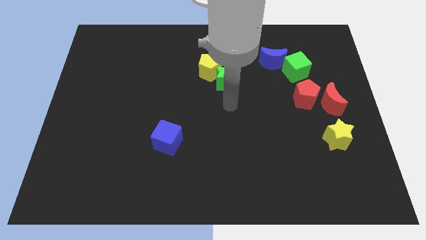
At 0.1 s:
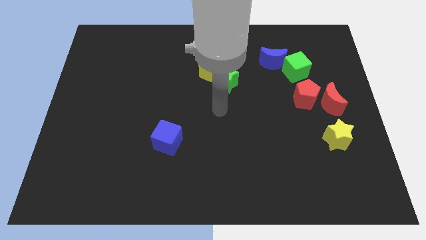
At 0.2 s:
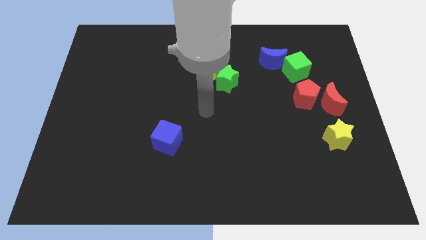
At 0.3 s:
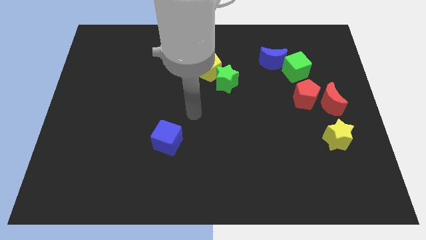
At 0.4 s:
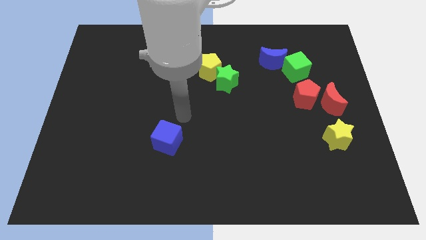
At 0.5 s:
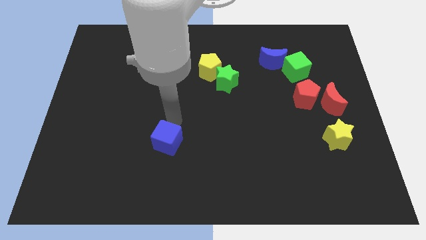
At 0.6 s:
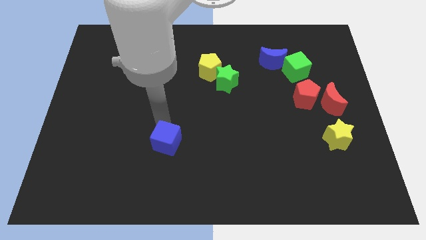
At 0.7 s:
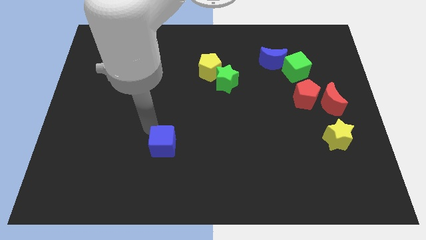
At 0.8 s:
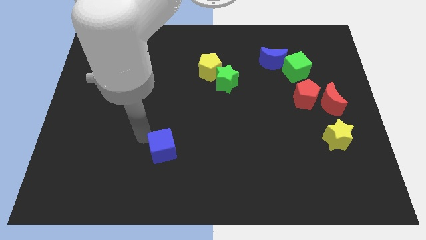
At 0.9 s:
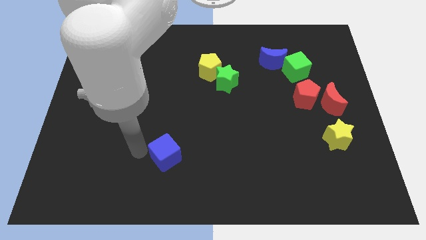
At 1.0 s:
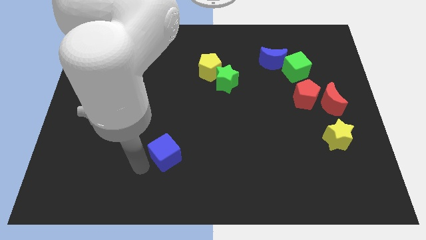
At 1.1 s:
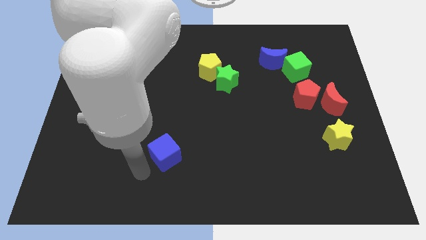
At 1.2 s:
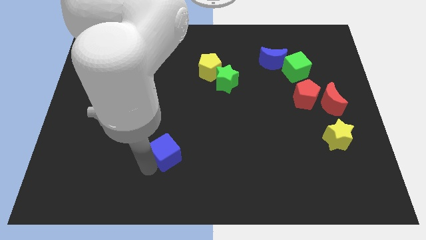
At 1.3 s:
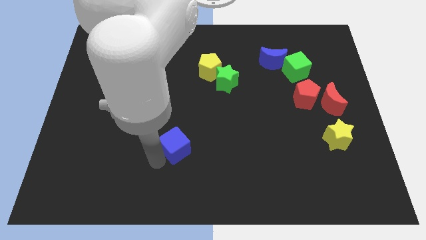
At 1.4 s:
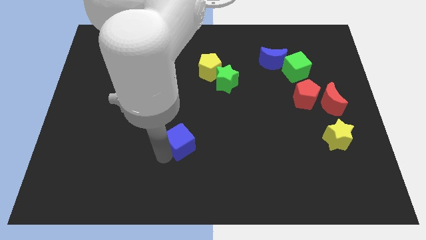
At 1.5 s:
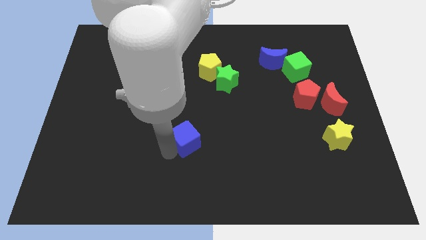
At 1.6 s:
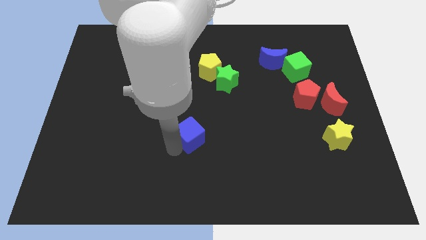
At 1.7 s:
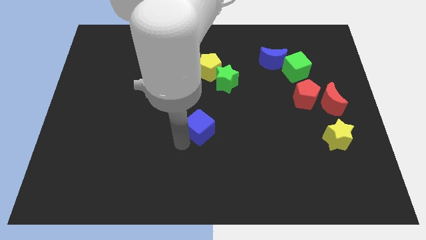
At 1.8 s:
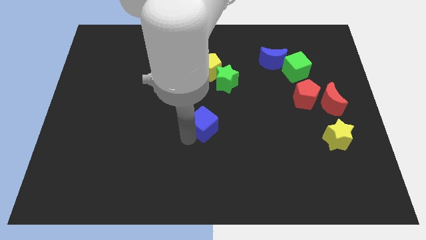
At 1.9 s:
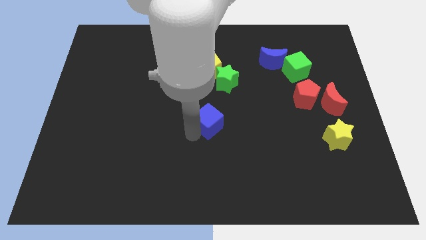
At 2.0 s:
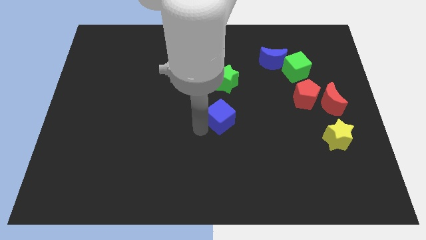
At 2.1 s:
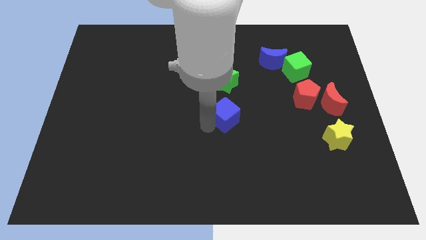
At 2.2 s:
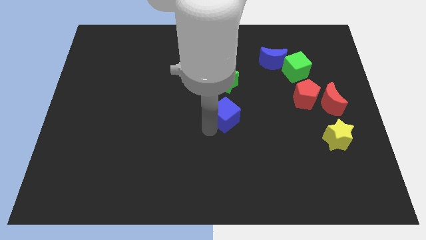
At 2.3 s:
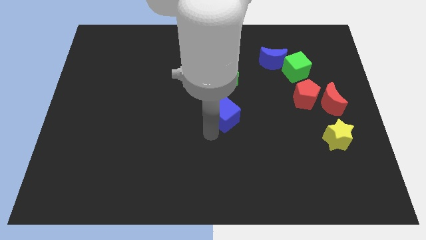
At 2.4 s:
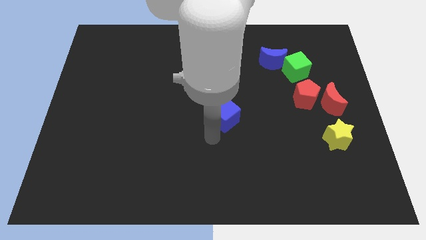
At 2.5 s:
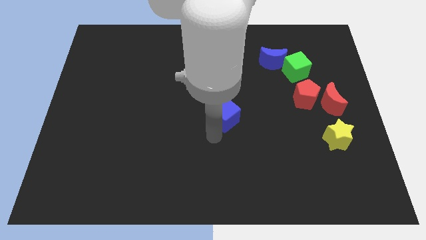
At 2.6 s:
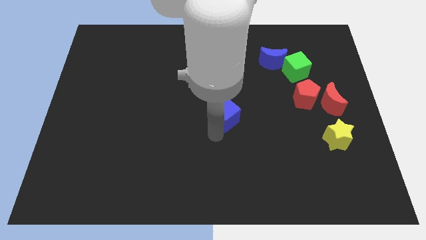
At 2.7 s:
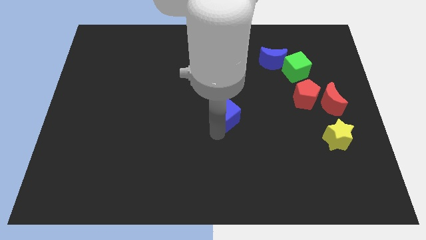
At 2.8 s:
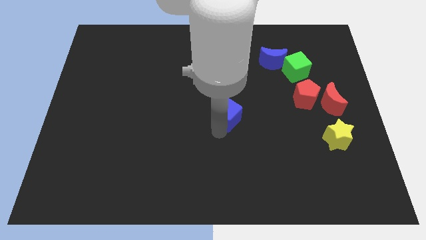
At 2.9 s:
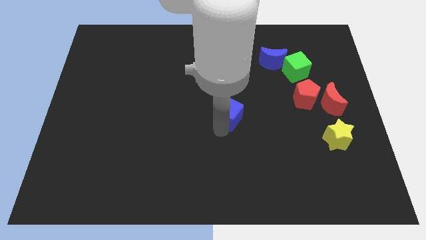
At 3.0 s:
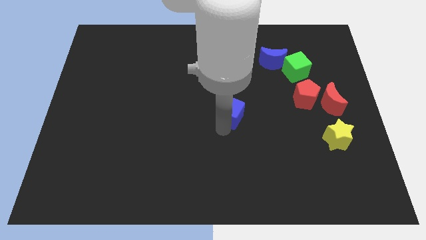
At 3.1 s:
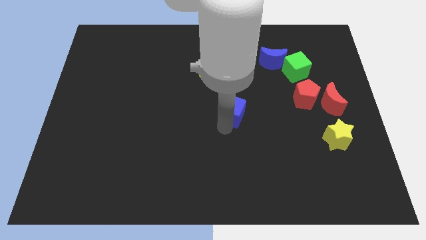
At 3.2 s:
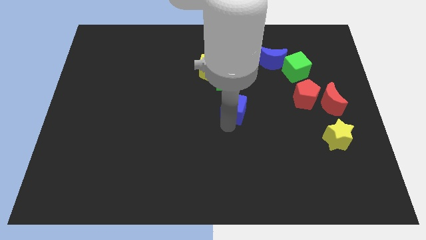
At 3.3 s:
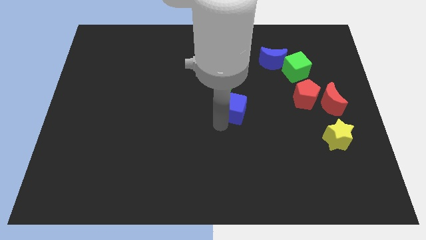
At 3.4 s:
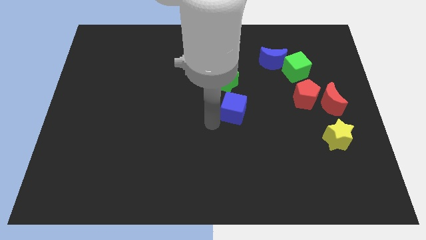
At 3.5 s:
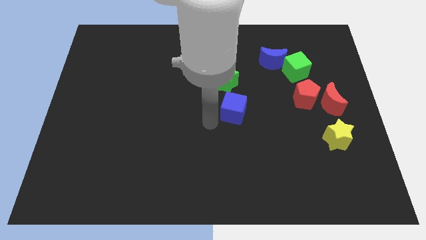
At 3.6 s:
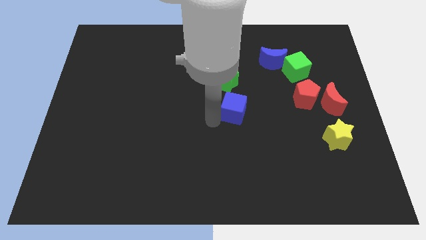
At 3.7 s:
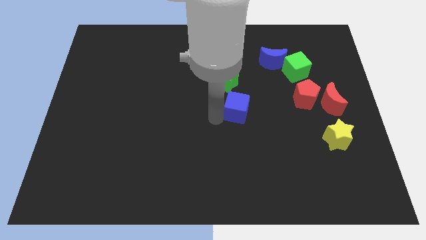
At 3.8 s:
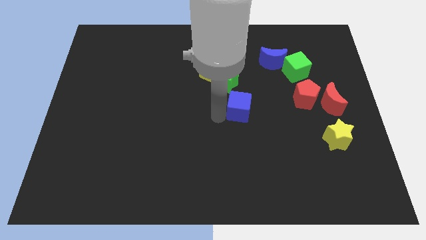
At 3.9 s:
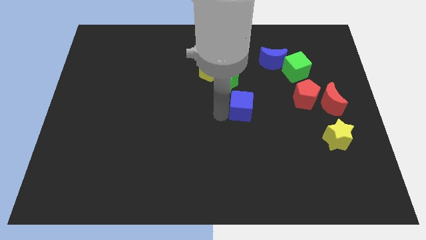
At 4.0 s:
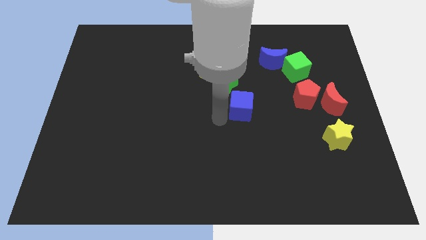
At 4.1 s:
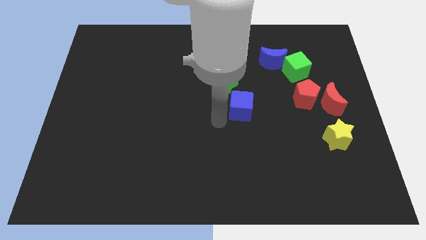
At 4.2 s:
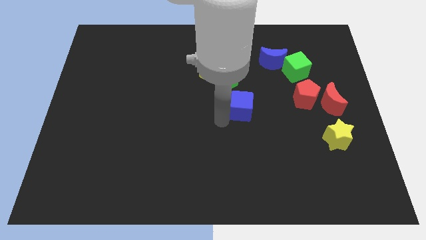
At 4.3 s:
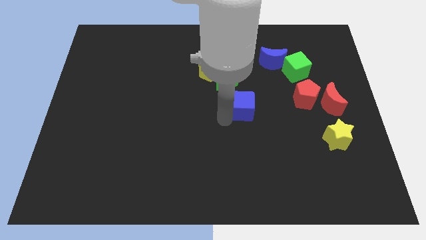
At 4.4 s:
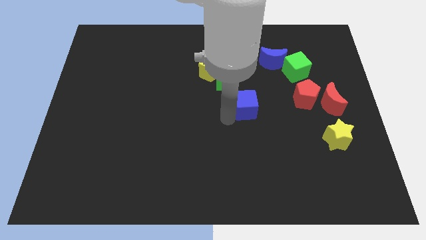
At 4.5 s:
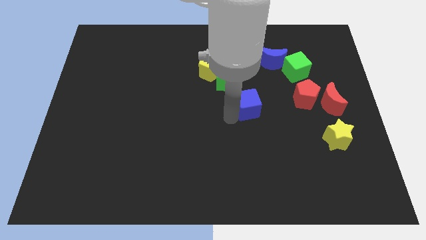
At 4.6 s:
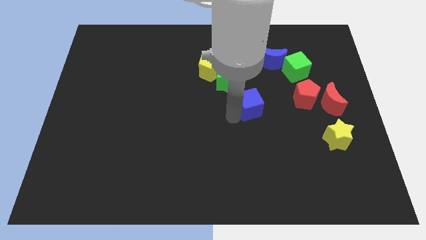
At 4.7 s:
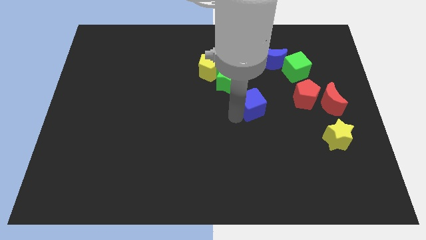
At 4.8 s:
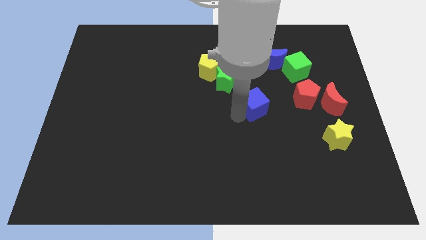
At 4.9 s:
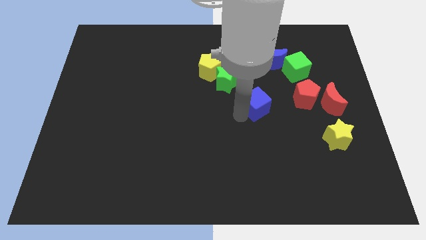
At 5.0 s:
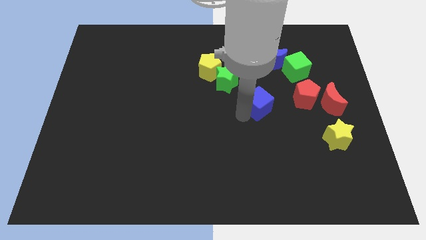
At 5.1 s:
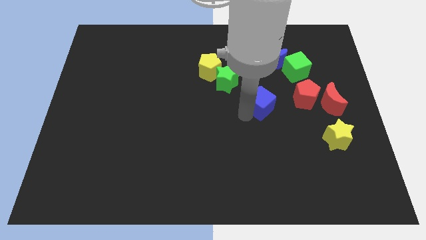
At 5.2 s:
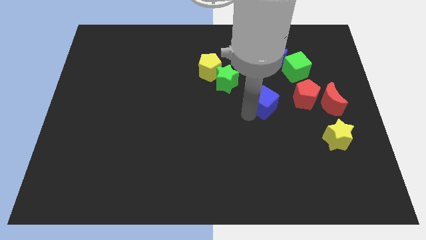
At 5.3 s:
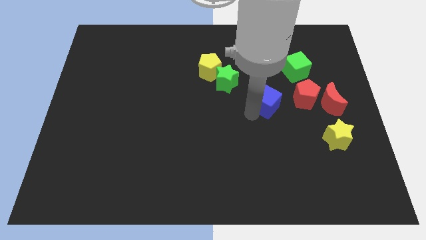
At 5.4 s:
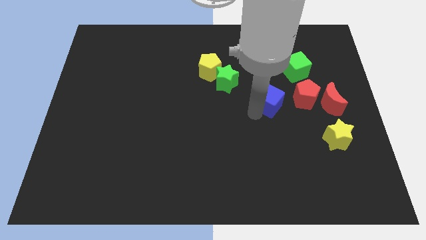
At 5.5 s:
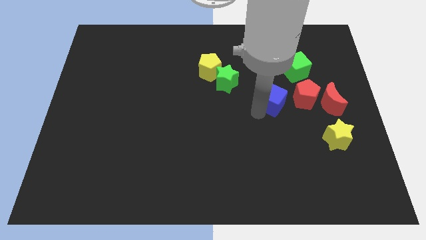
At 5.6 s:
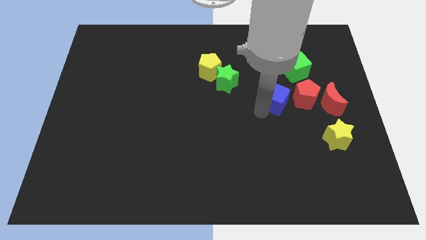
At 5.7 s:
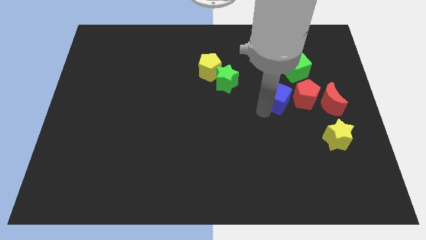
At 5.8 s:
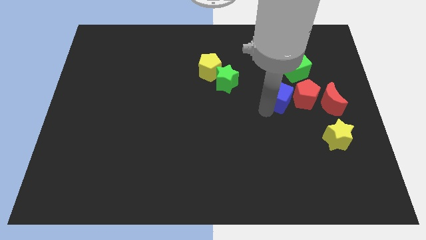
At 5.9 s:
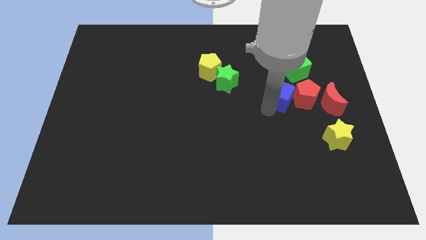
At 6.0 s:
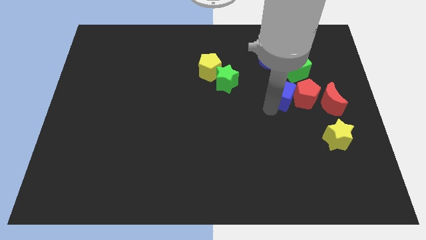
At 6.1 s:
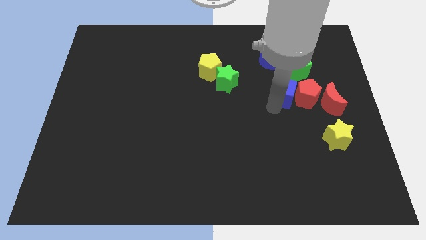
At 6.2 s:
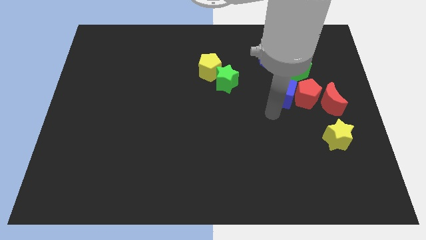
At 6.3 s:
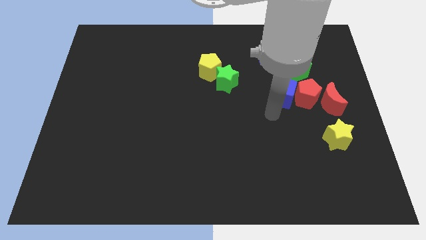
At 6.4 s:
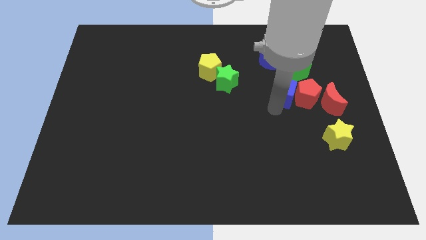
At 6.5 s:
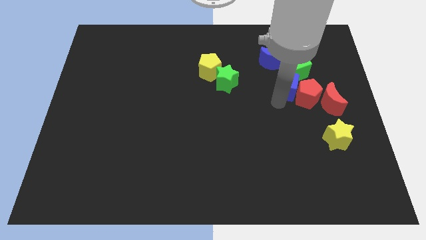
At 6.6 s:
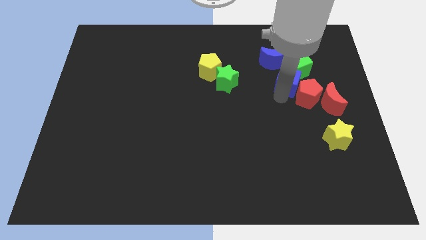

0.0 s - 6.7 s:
slide the blue cube close to the green cube

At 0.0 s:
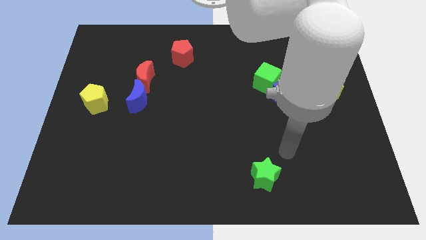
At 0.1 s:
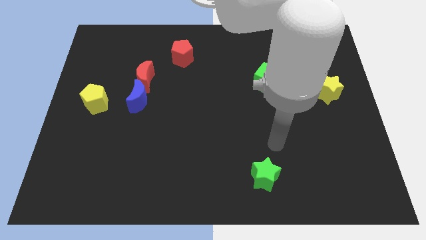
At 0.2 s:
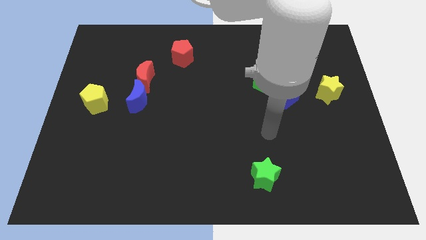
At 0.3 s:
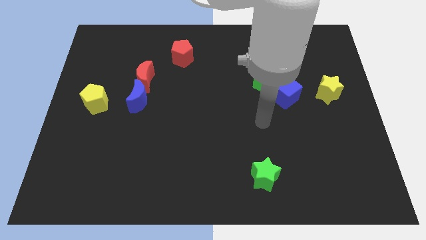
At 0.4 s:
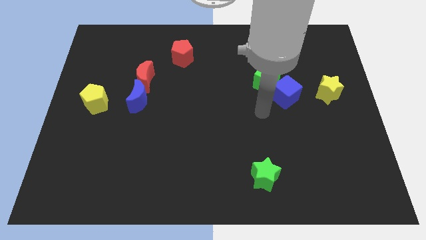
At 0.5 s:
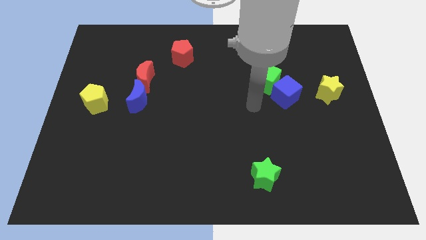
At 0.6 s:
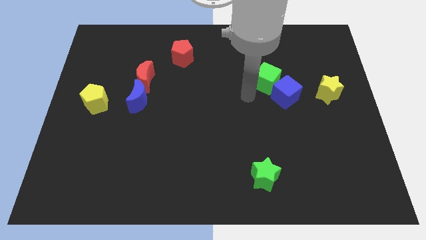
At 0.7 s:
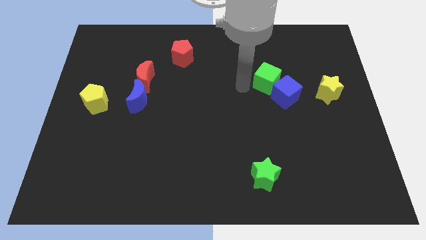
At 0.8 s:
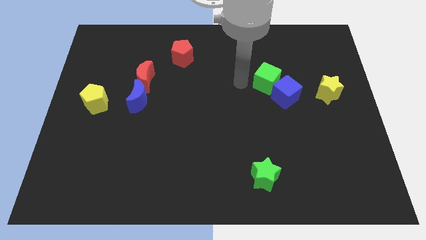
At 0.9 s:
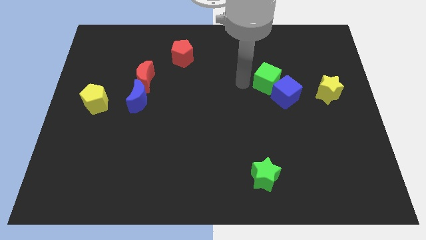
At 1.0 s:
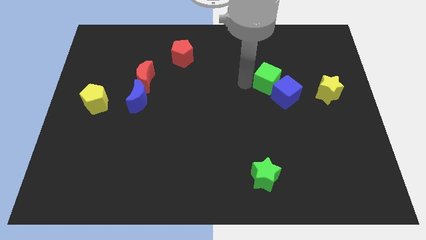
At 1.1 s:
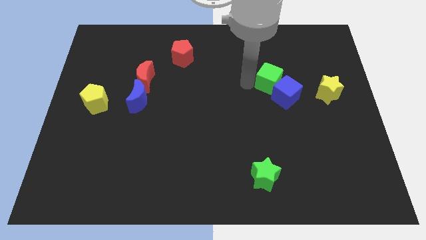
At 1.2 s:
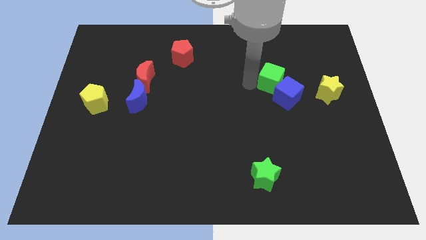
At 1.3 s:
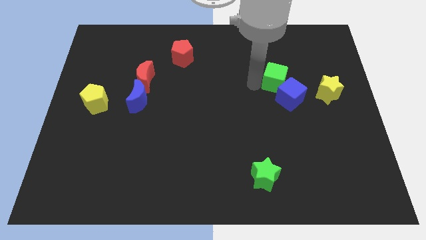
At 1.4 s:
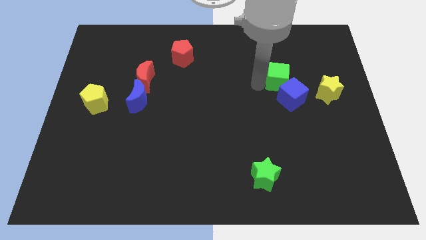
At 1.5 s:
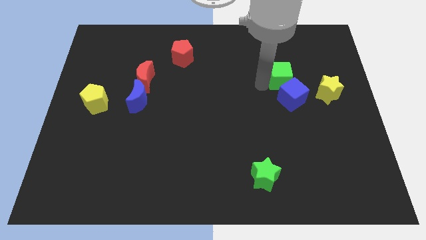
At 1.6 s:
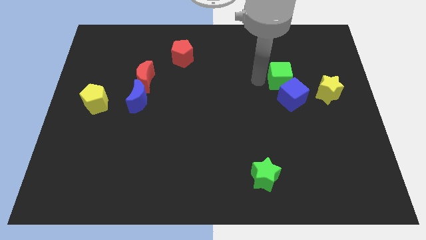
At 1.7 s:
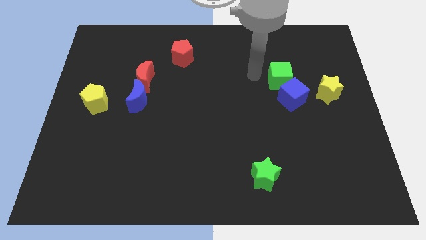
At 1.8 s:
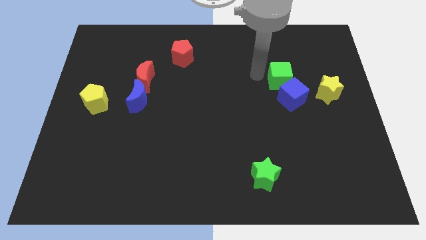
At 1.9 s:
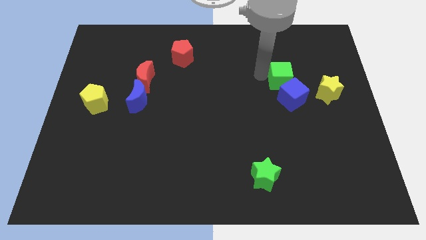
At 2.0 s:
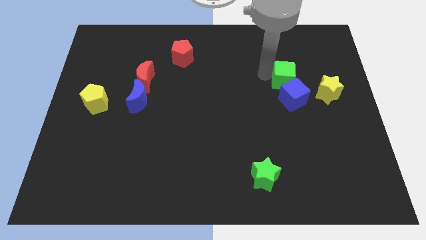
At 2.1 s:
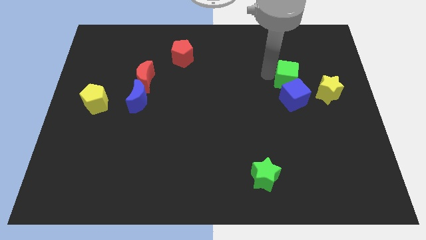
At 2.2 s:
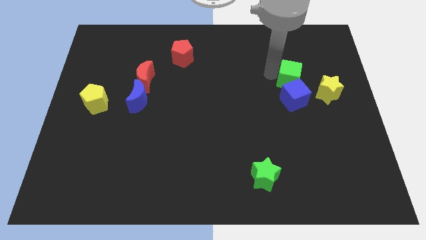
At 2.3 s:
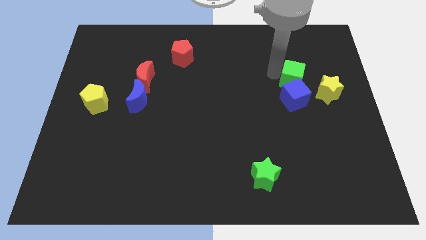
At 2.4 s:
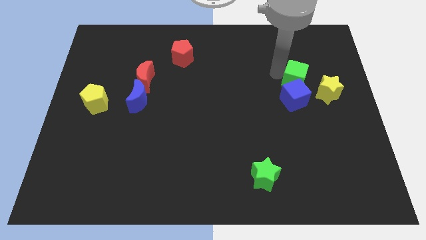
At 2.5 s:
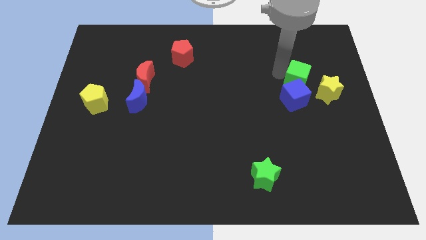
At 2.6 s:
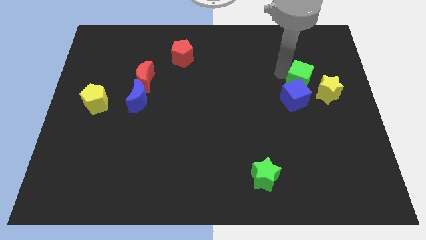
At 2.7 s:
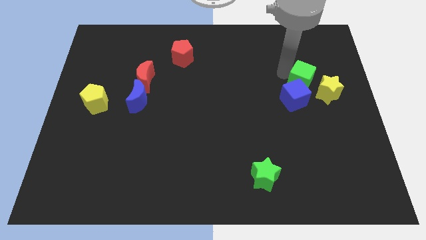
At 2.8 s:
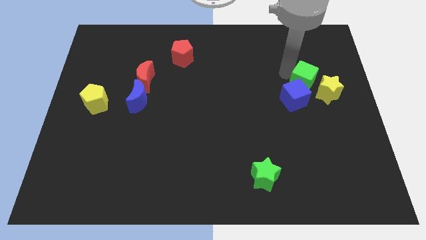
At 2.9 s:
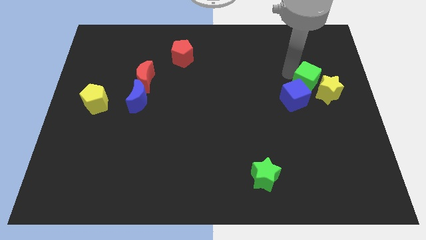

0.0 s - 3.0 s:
move the green cube towards the yellow star
